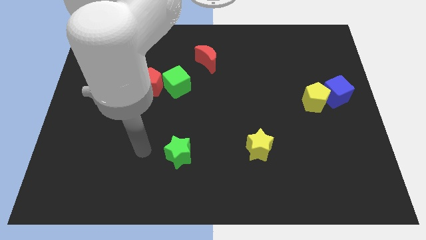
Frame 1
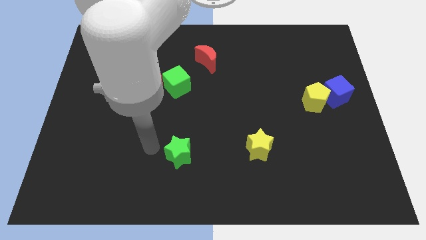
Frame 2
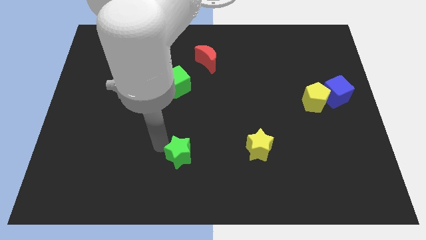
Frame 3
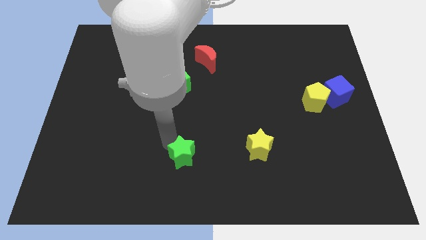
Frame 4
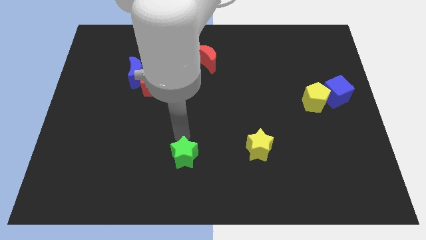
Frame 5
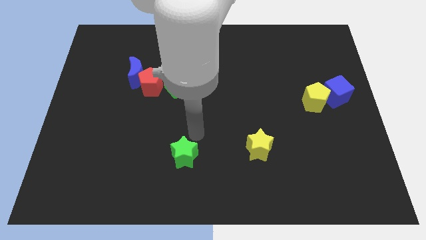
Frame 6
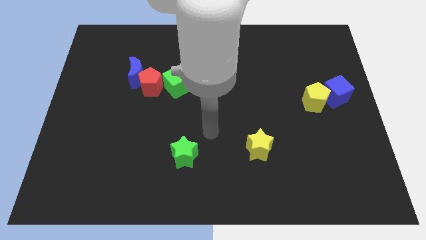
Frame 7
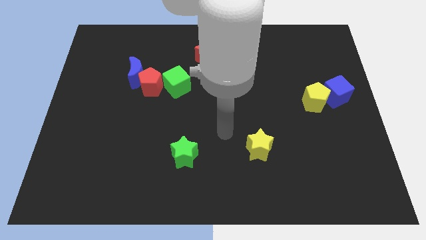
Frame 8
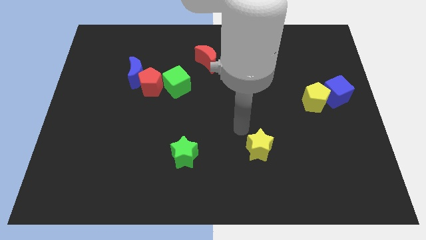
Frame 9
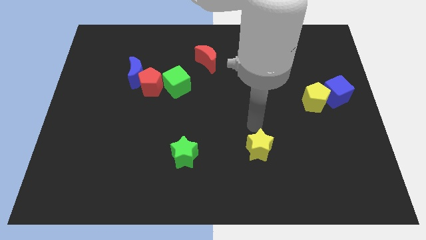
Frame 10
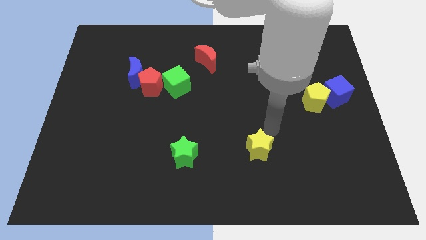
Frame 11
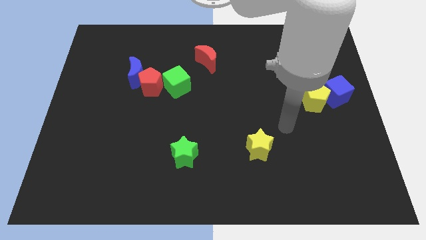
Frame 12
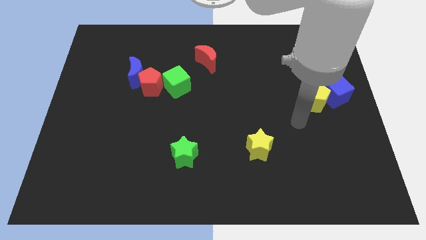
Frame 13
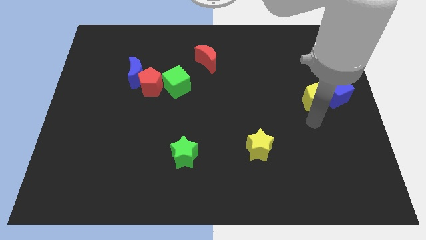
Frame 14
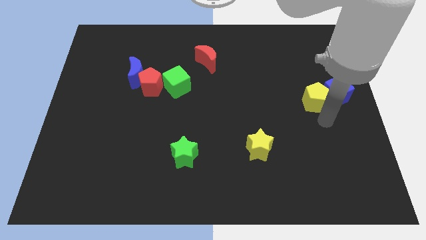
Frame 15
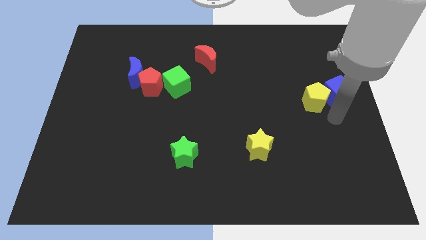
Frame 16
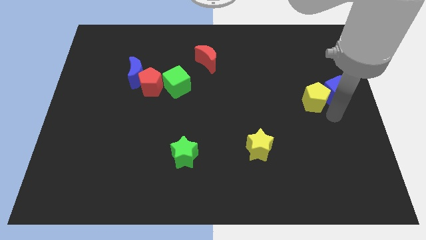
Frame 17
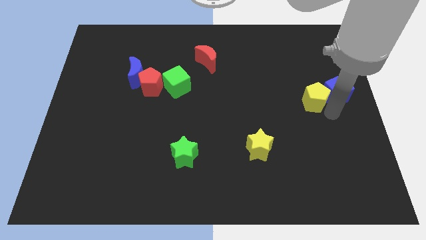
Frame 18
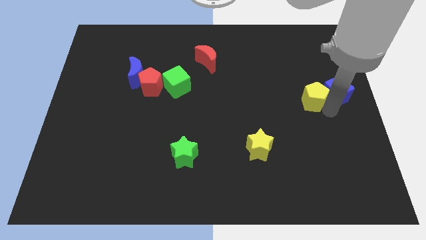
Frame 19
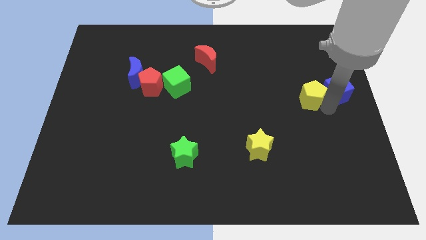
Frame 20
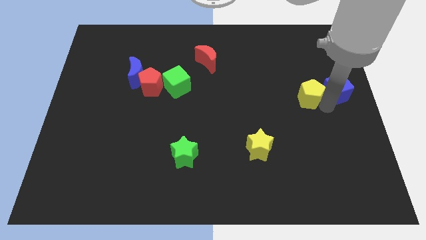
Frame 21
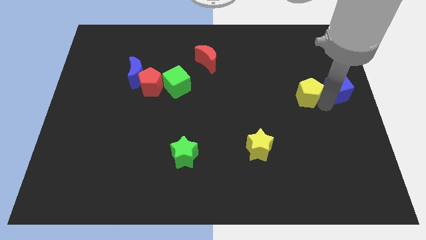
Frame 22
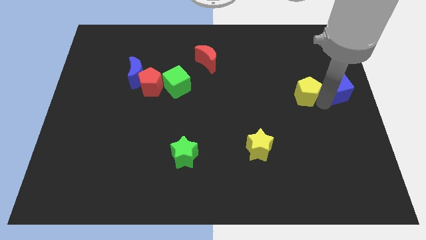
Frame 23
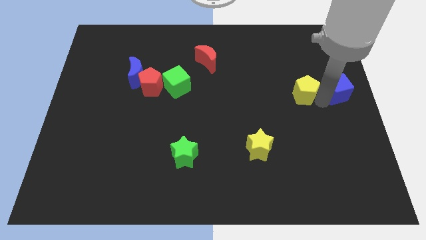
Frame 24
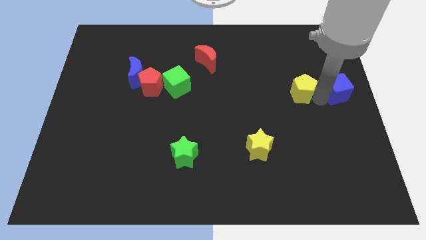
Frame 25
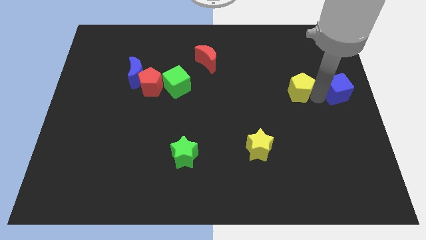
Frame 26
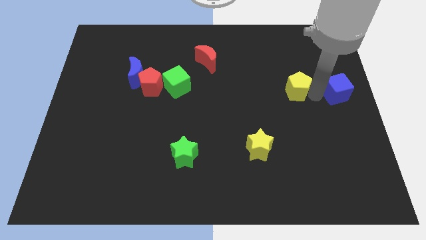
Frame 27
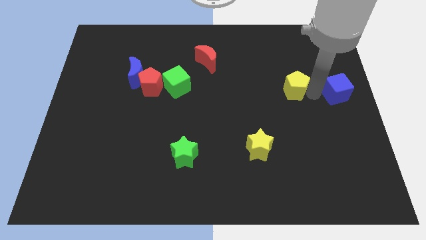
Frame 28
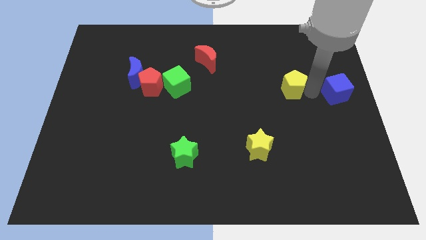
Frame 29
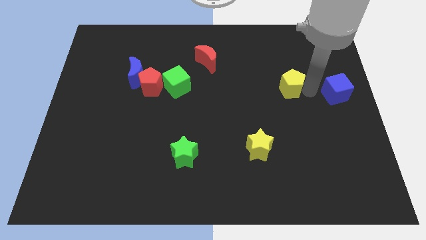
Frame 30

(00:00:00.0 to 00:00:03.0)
slide the yellow pentagon a little bit diagonally up and to the left

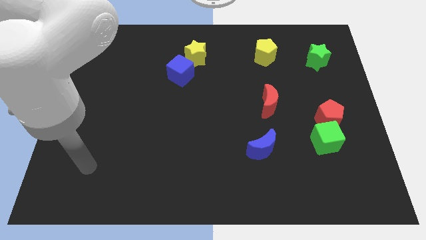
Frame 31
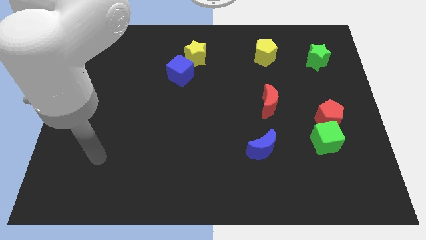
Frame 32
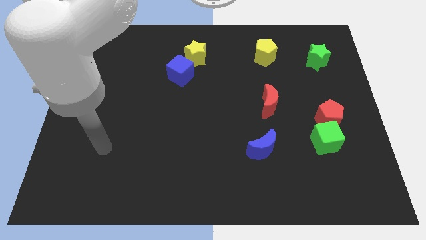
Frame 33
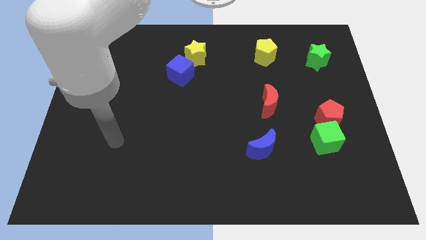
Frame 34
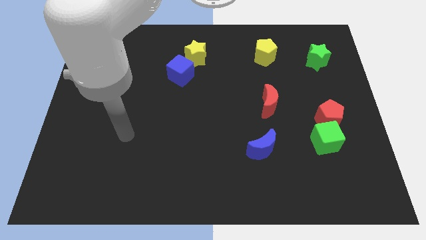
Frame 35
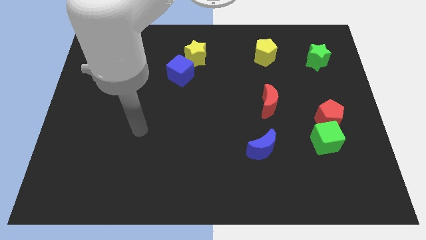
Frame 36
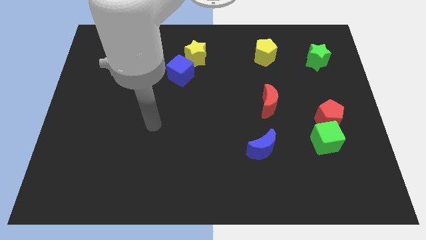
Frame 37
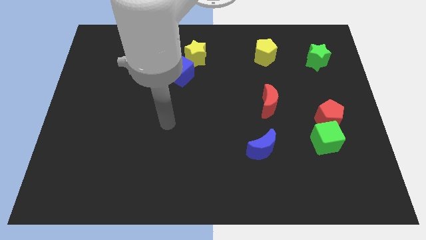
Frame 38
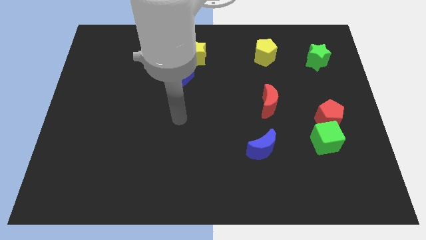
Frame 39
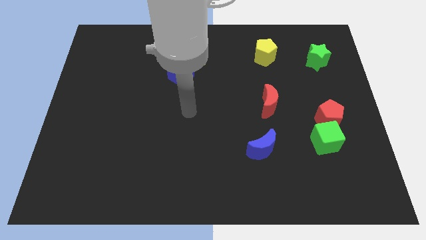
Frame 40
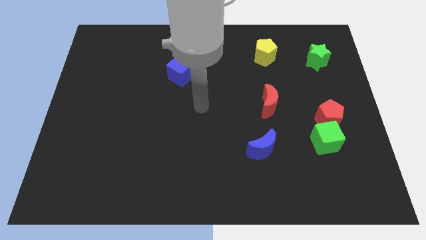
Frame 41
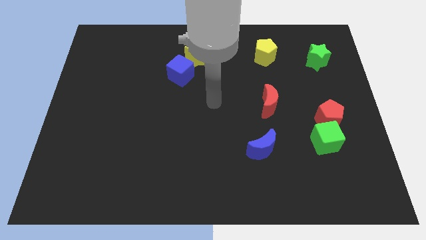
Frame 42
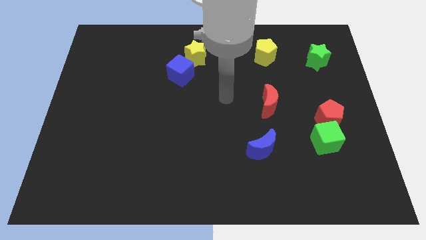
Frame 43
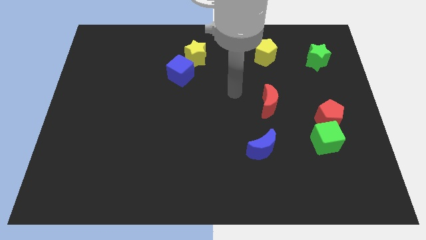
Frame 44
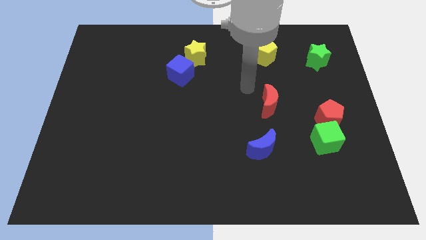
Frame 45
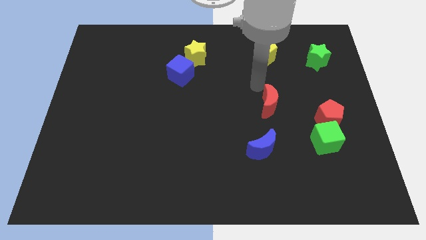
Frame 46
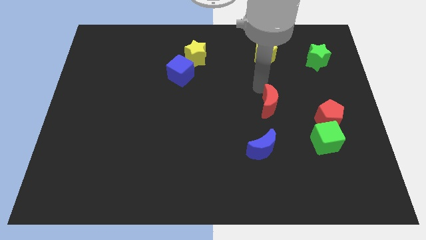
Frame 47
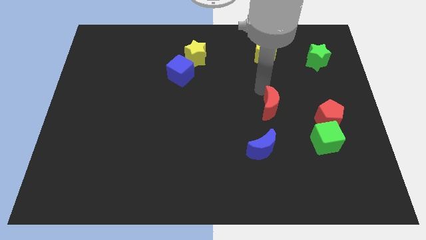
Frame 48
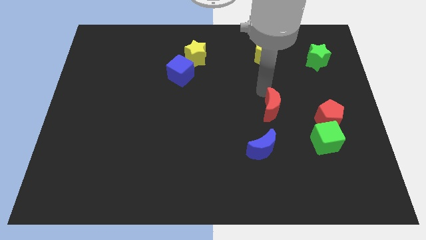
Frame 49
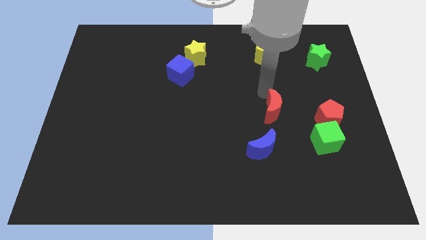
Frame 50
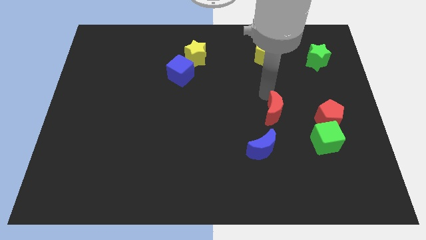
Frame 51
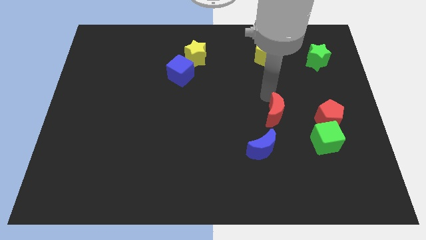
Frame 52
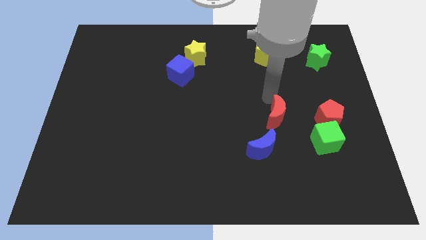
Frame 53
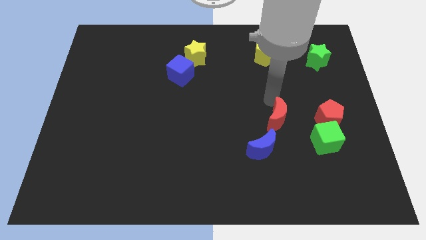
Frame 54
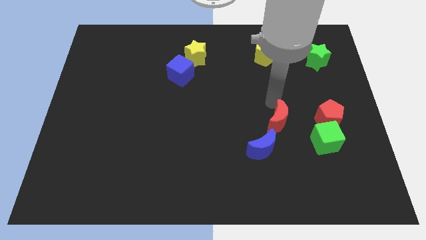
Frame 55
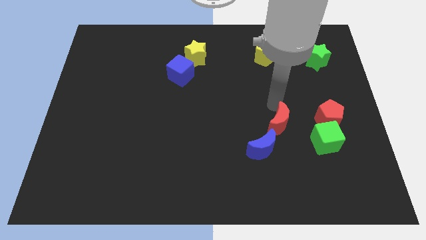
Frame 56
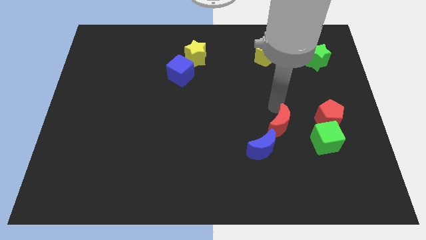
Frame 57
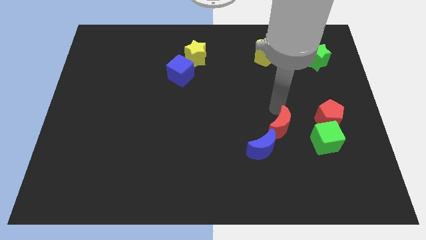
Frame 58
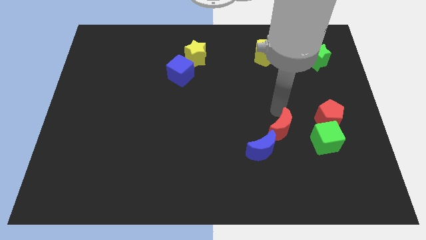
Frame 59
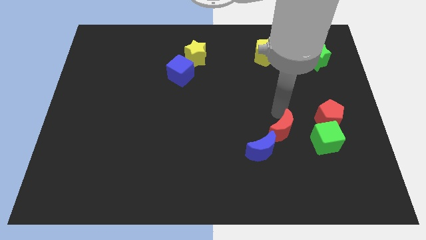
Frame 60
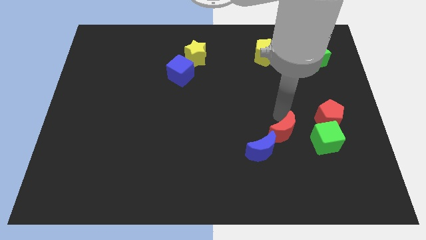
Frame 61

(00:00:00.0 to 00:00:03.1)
slide the red moon a bit down and to the right

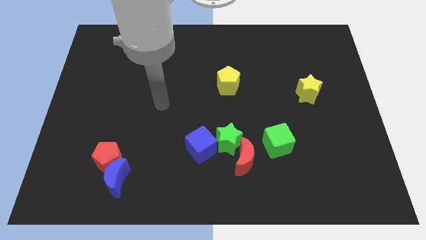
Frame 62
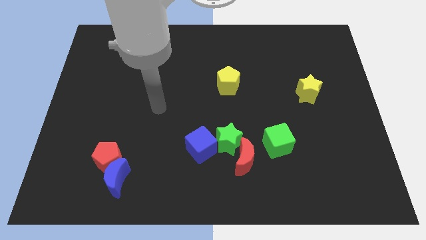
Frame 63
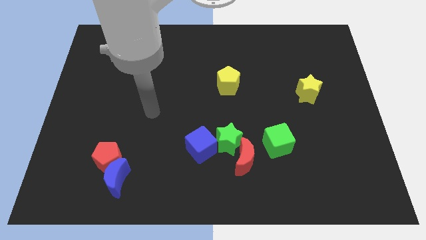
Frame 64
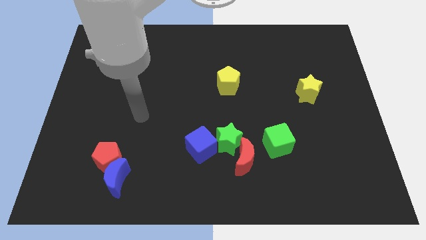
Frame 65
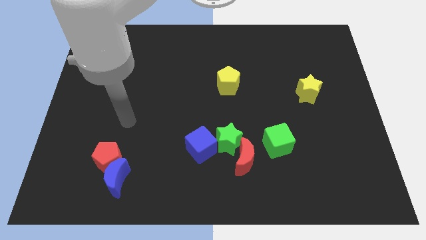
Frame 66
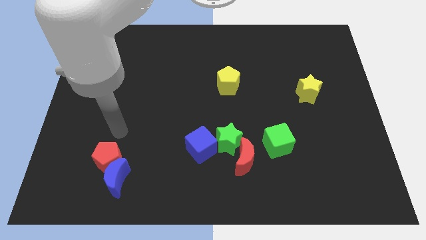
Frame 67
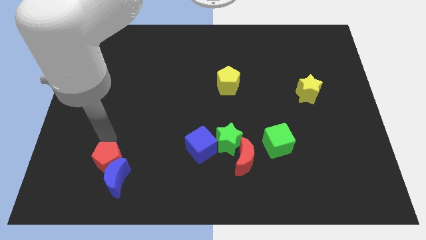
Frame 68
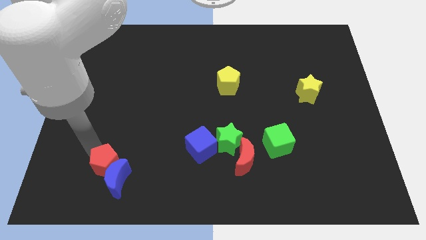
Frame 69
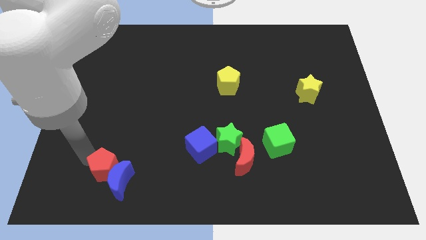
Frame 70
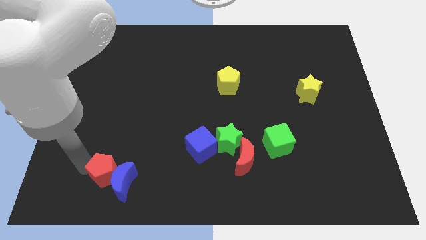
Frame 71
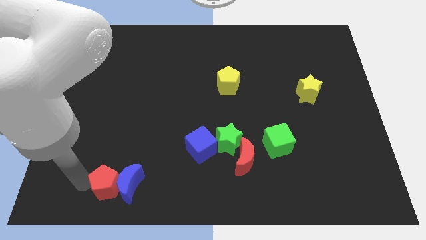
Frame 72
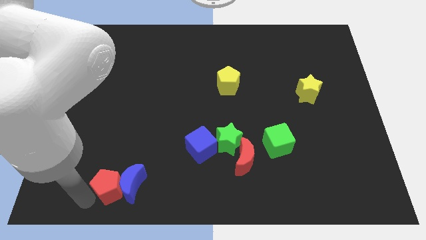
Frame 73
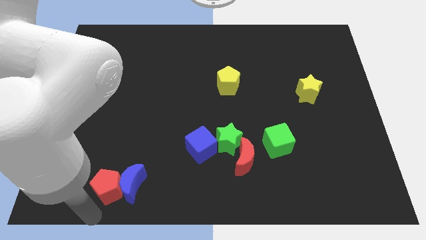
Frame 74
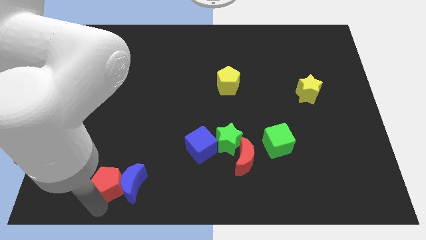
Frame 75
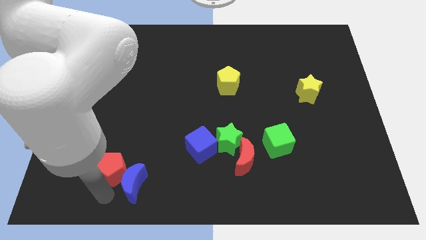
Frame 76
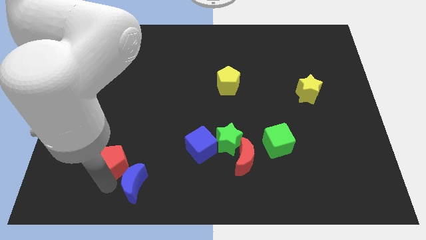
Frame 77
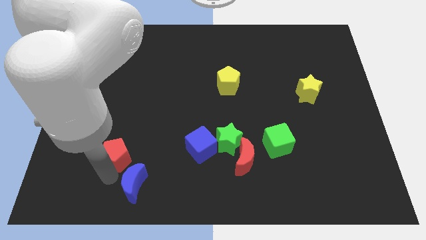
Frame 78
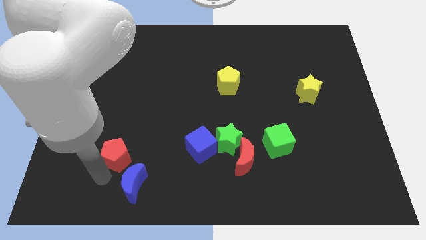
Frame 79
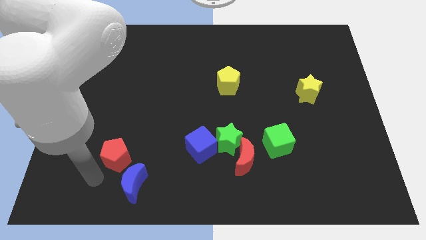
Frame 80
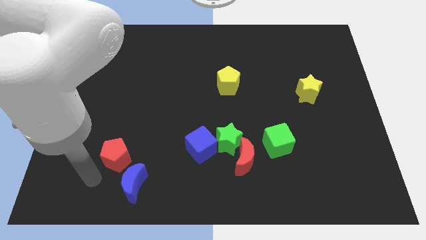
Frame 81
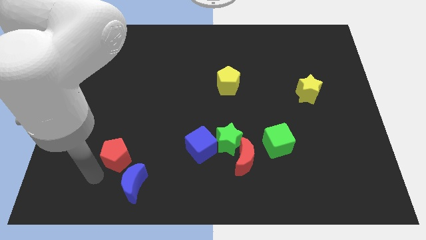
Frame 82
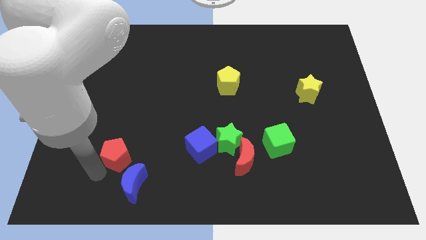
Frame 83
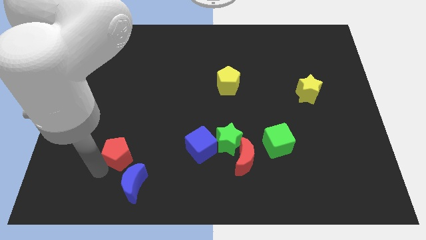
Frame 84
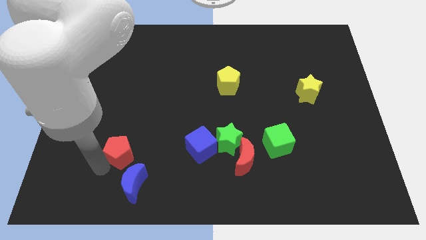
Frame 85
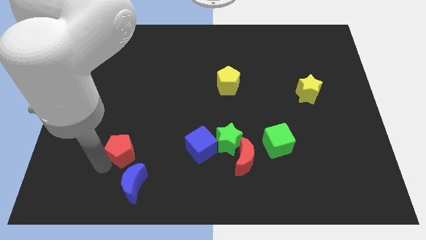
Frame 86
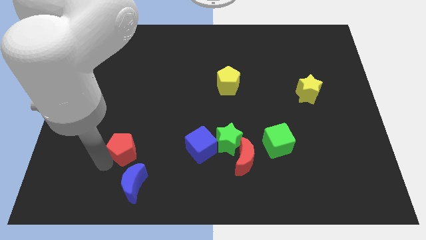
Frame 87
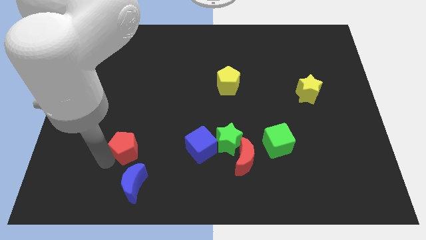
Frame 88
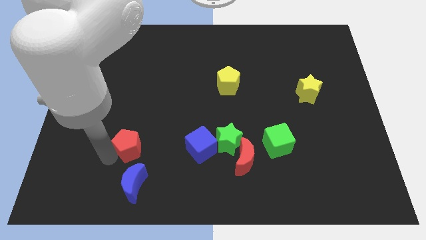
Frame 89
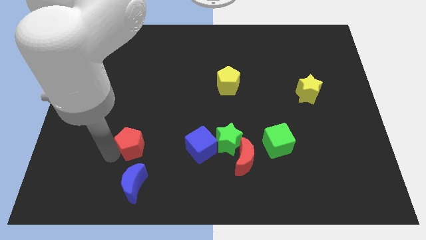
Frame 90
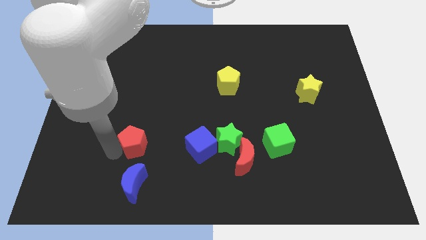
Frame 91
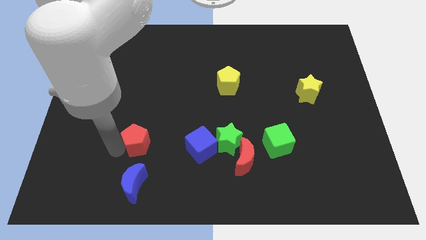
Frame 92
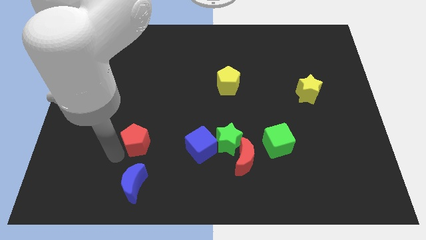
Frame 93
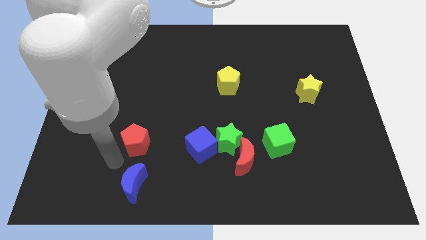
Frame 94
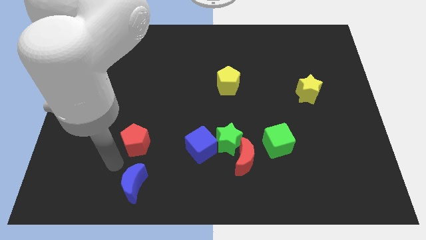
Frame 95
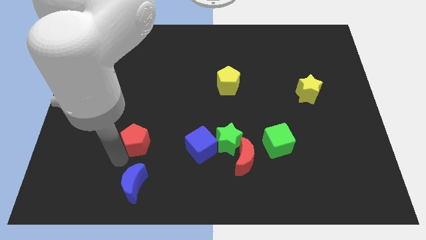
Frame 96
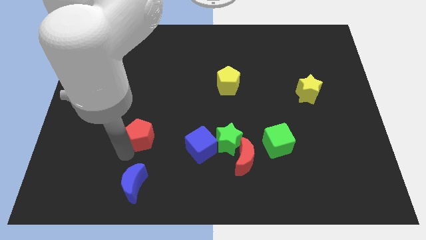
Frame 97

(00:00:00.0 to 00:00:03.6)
slide the red pentagon diagonally up and to the right somewhat
